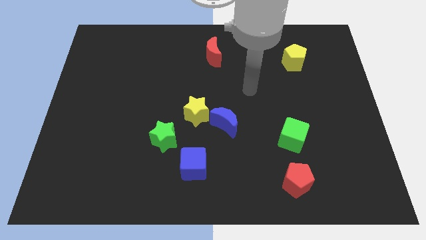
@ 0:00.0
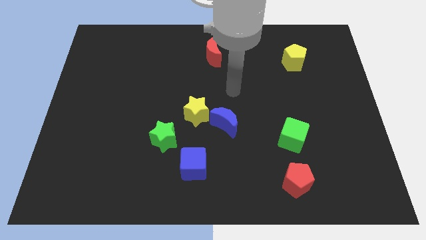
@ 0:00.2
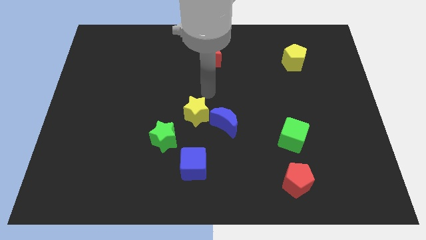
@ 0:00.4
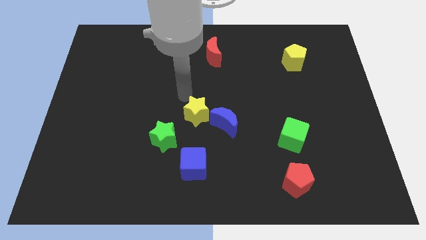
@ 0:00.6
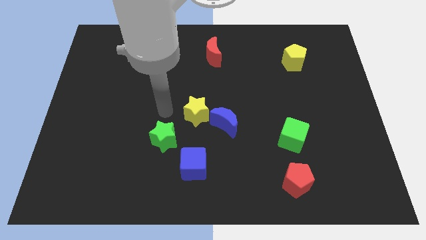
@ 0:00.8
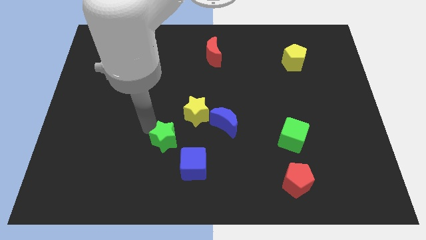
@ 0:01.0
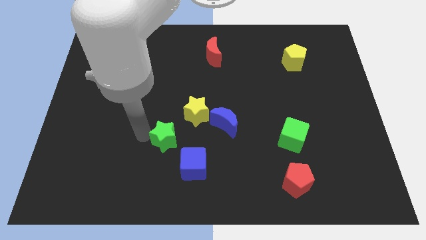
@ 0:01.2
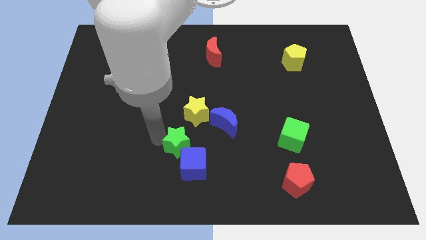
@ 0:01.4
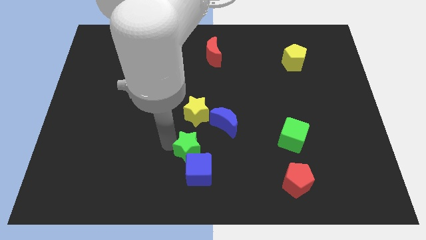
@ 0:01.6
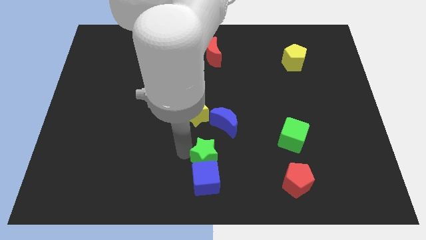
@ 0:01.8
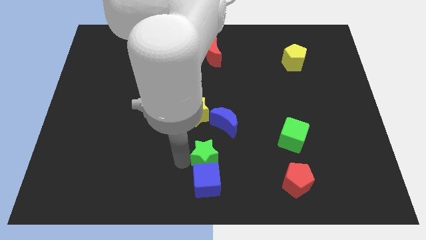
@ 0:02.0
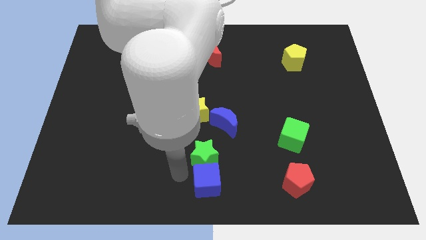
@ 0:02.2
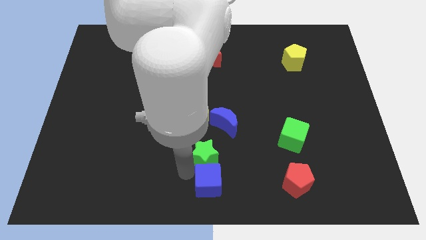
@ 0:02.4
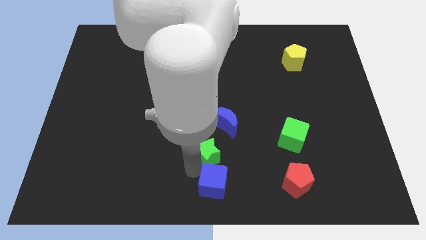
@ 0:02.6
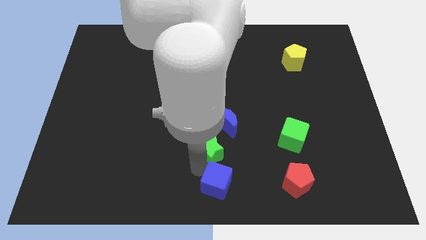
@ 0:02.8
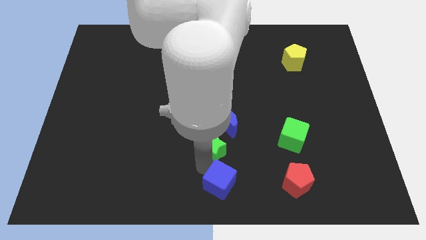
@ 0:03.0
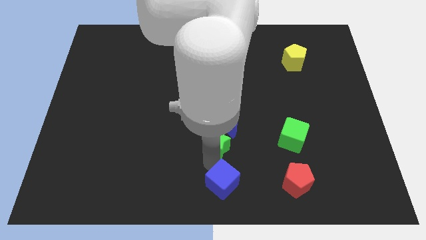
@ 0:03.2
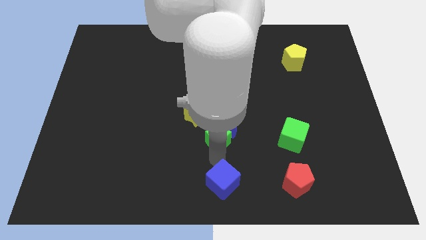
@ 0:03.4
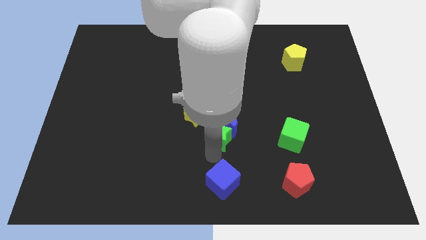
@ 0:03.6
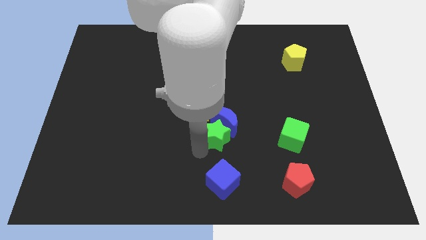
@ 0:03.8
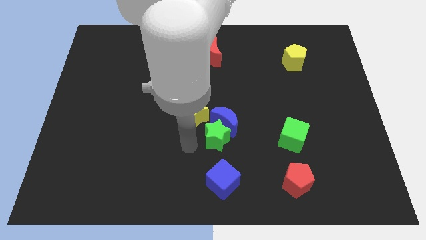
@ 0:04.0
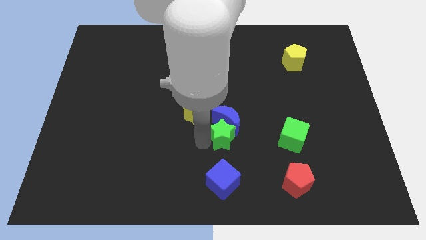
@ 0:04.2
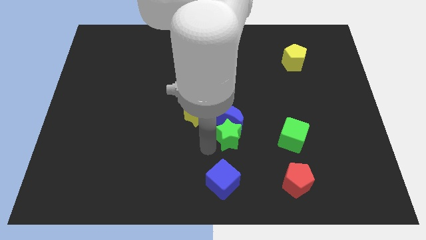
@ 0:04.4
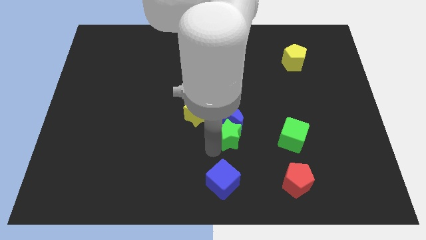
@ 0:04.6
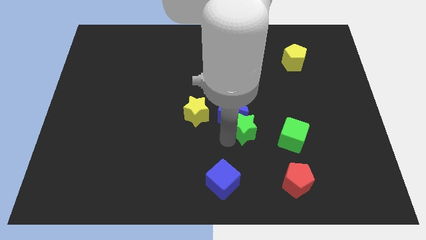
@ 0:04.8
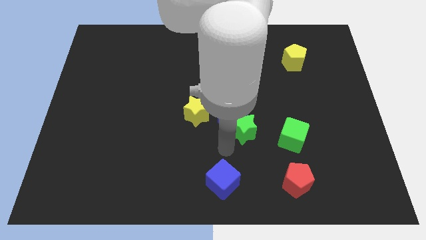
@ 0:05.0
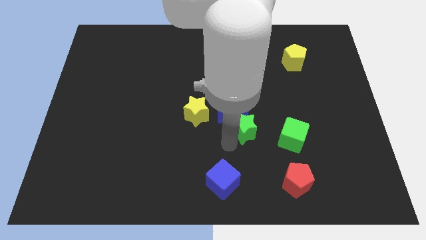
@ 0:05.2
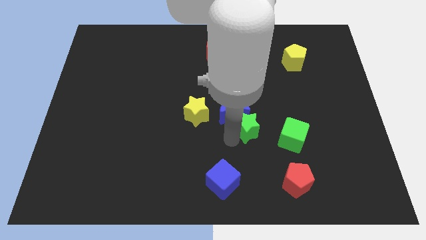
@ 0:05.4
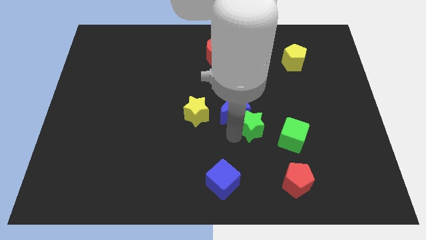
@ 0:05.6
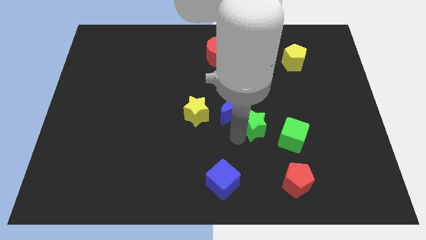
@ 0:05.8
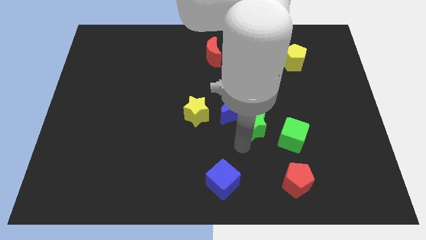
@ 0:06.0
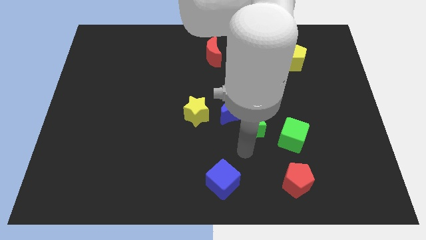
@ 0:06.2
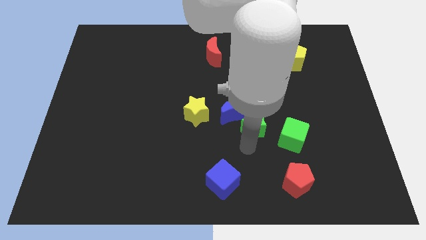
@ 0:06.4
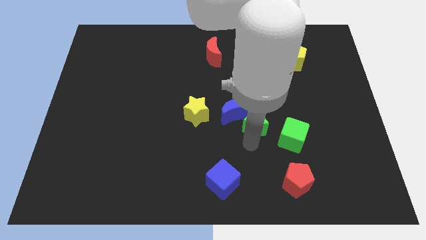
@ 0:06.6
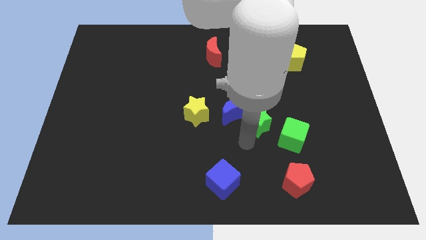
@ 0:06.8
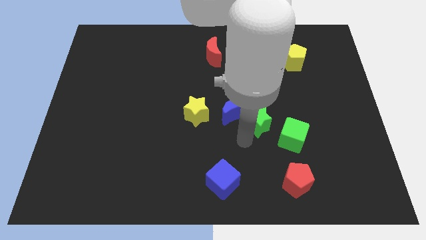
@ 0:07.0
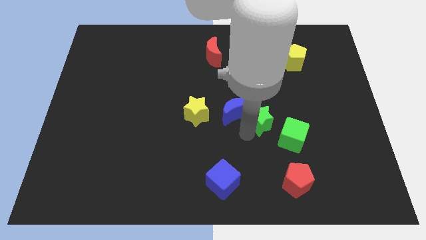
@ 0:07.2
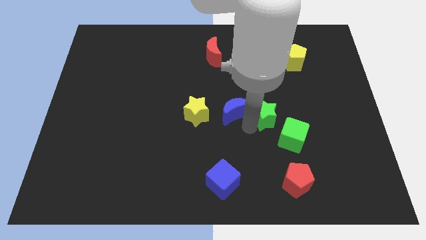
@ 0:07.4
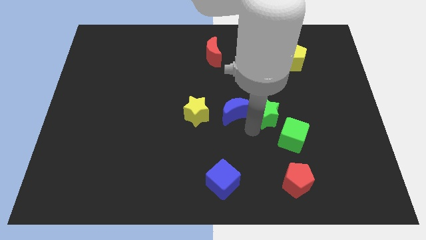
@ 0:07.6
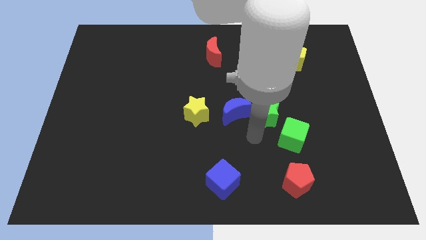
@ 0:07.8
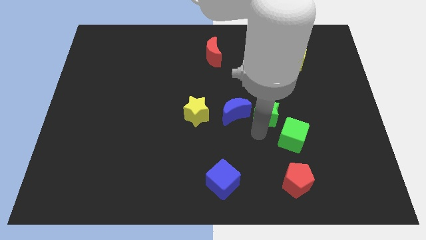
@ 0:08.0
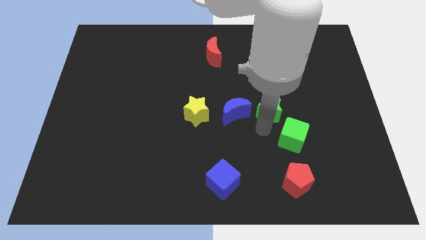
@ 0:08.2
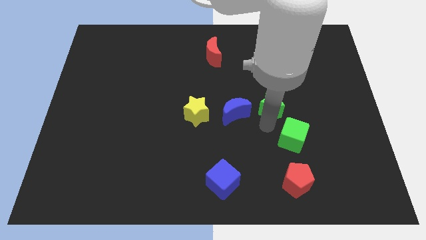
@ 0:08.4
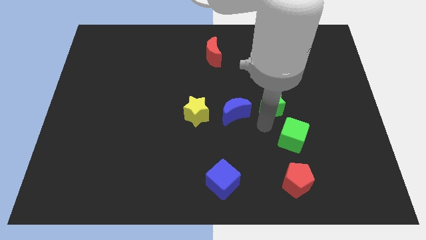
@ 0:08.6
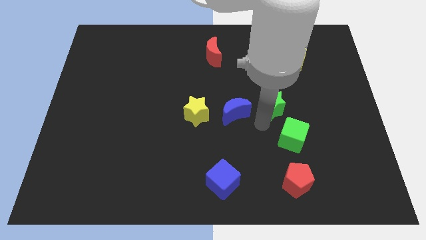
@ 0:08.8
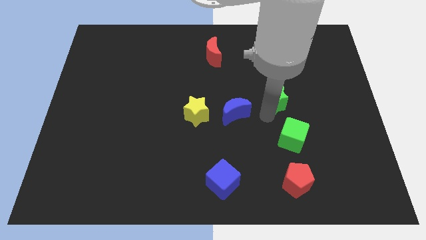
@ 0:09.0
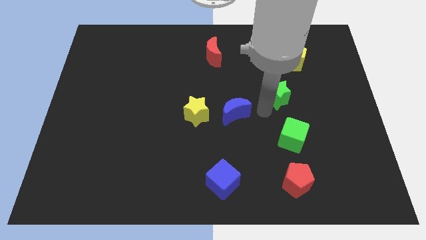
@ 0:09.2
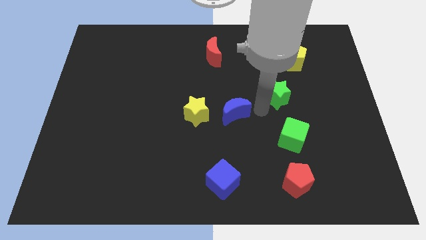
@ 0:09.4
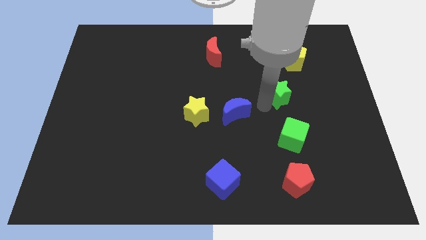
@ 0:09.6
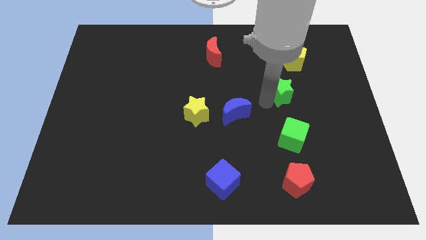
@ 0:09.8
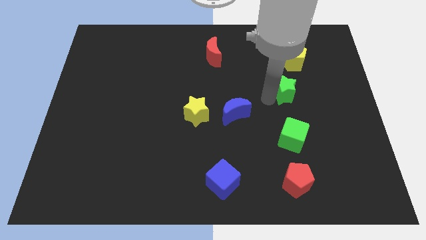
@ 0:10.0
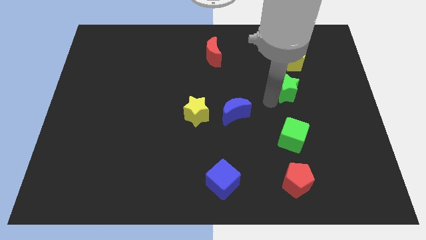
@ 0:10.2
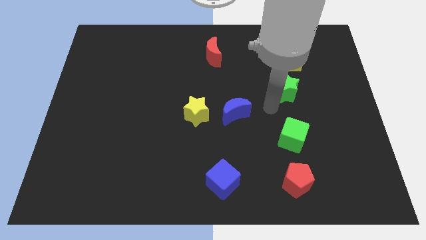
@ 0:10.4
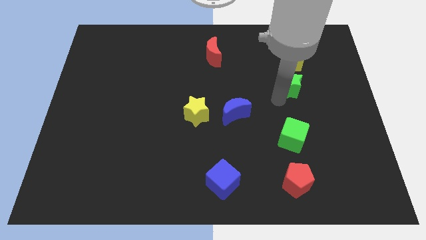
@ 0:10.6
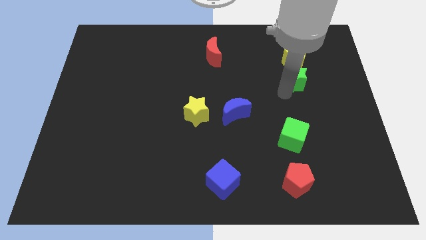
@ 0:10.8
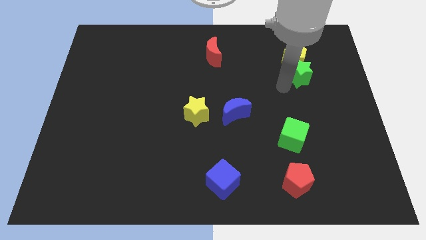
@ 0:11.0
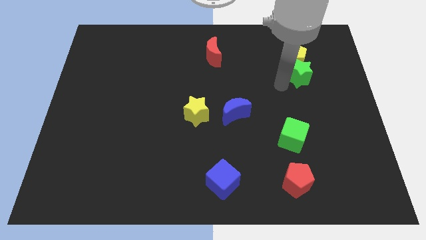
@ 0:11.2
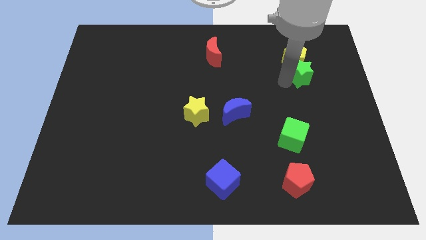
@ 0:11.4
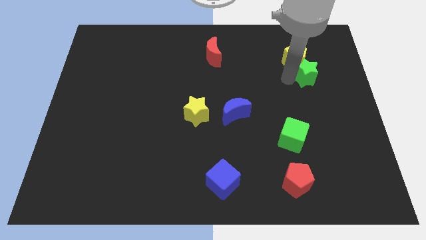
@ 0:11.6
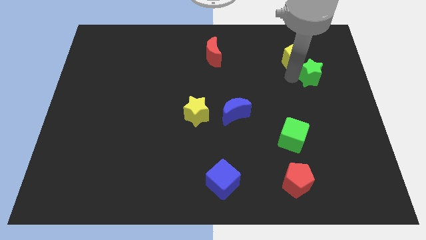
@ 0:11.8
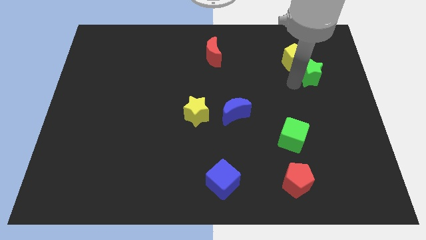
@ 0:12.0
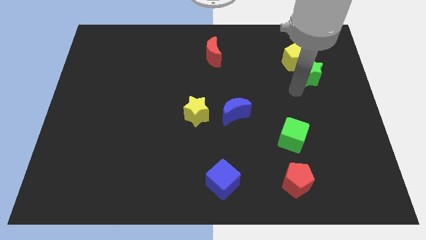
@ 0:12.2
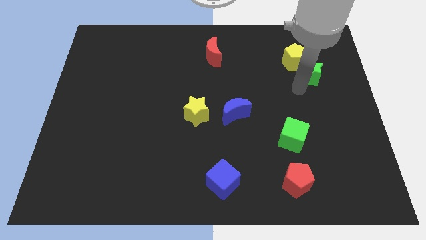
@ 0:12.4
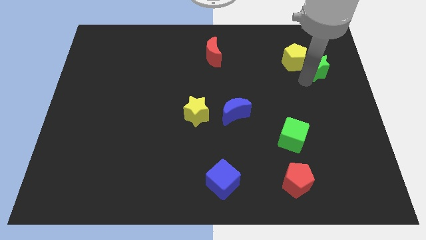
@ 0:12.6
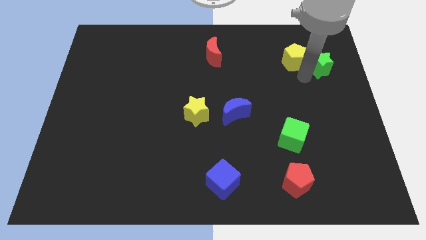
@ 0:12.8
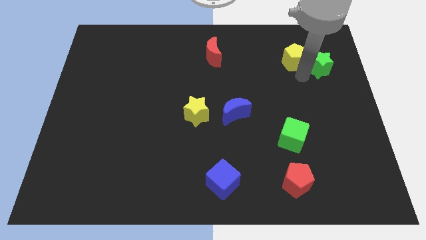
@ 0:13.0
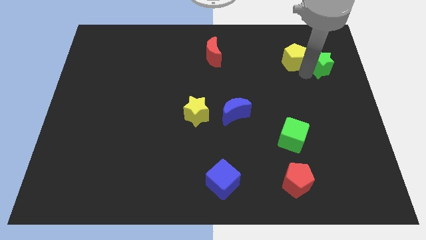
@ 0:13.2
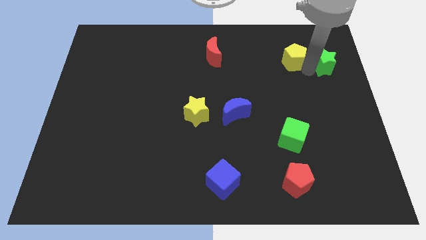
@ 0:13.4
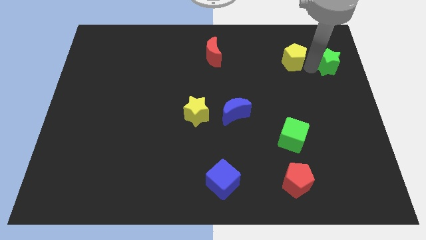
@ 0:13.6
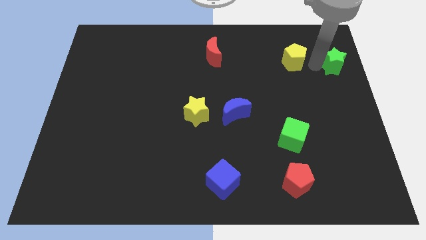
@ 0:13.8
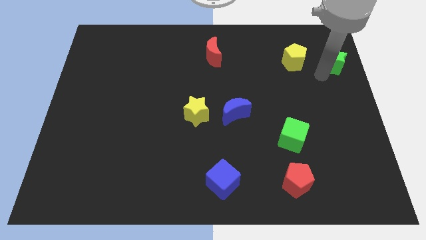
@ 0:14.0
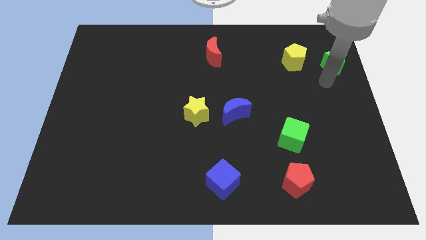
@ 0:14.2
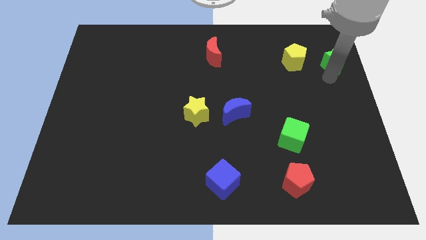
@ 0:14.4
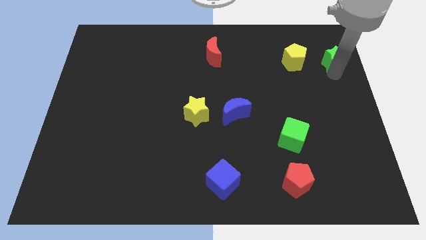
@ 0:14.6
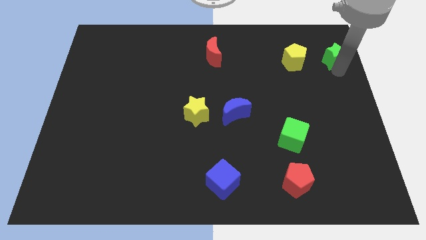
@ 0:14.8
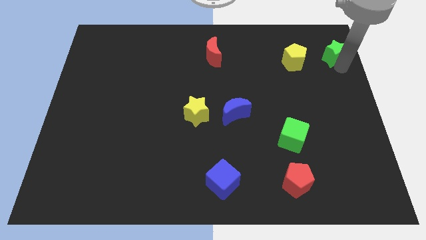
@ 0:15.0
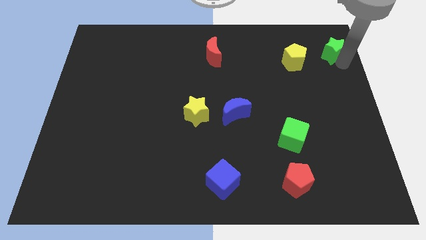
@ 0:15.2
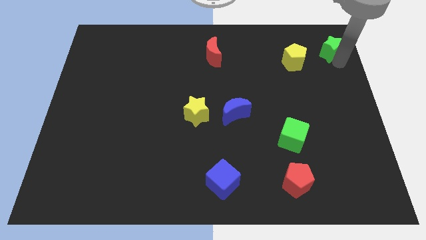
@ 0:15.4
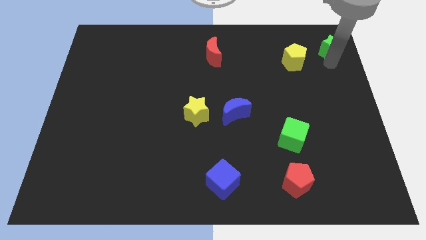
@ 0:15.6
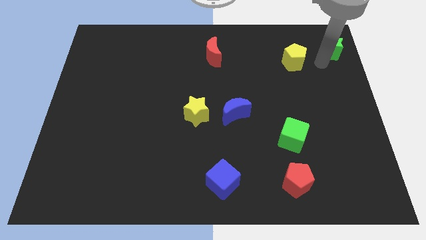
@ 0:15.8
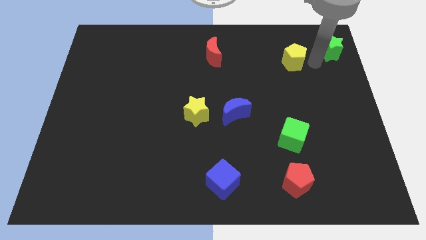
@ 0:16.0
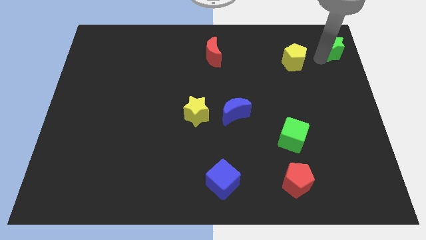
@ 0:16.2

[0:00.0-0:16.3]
move the green star to the top right corner
